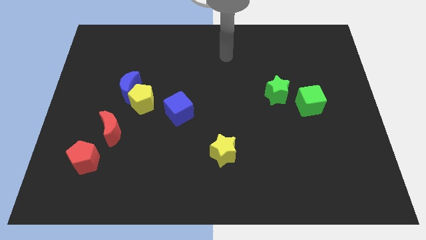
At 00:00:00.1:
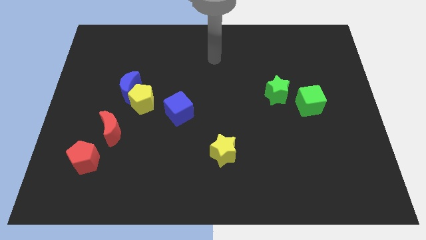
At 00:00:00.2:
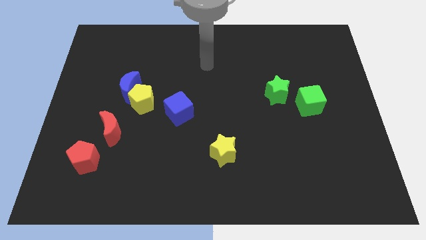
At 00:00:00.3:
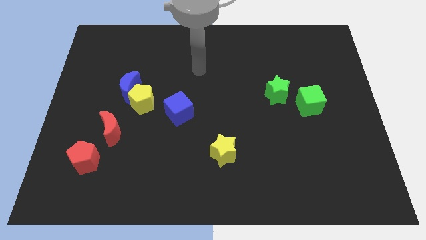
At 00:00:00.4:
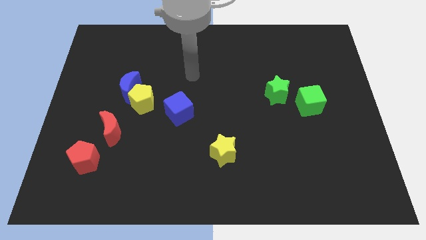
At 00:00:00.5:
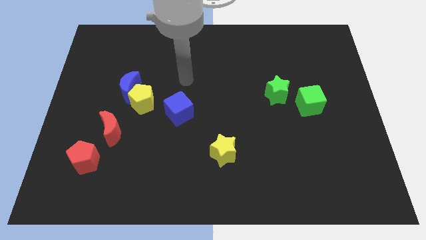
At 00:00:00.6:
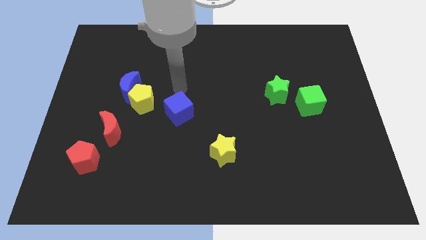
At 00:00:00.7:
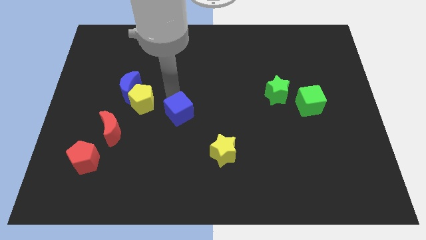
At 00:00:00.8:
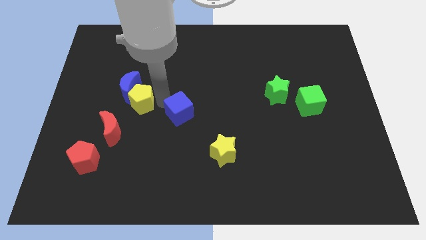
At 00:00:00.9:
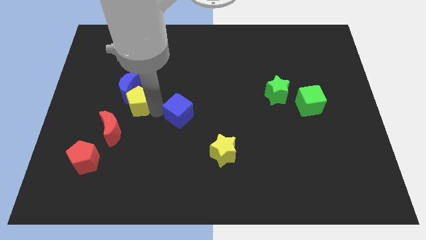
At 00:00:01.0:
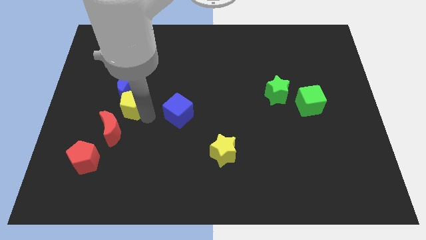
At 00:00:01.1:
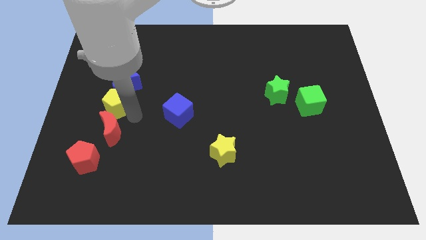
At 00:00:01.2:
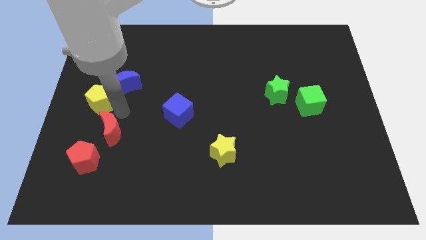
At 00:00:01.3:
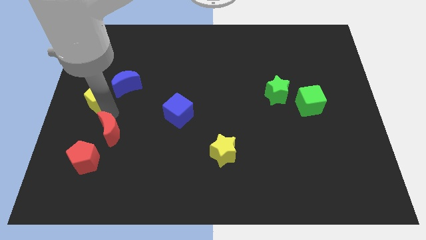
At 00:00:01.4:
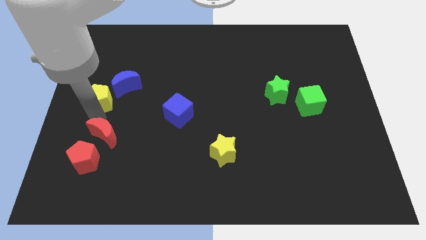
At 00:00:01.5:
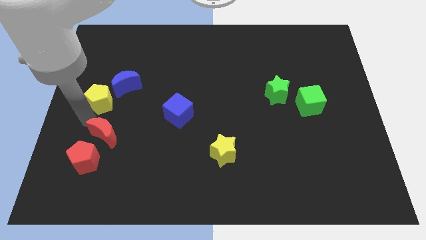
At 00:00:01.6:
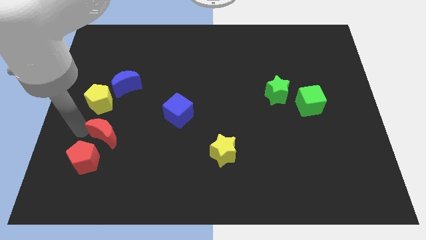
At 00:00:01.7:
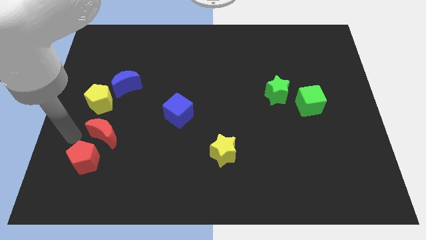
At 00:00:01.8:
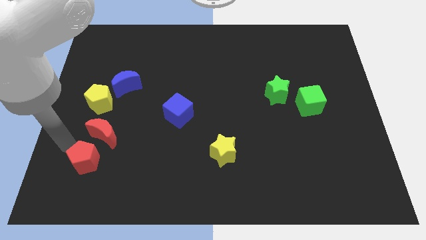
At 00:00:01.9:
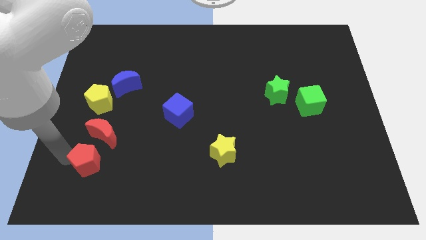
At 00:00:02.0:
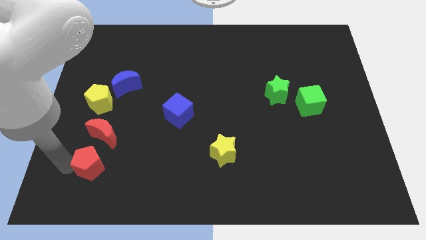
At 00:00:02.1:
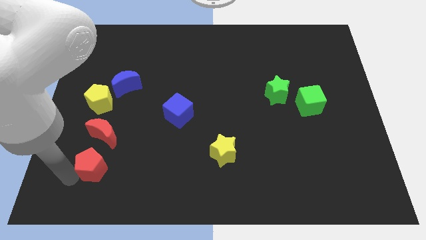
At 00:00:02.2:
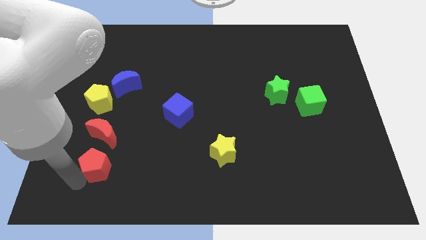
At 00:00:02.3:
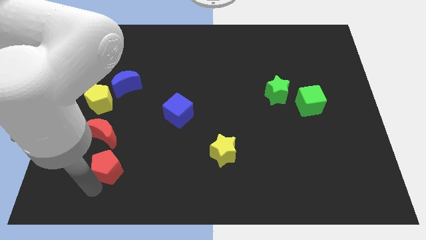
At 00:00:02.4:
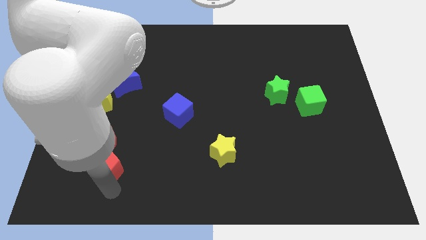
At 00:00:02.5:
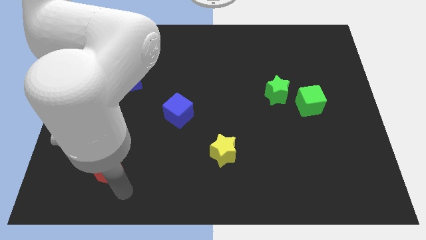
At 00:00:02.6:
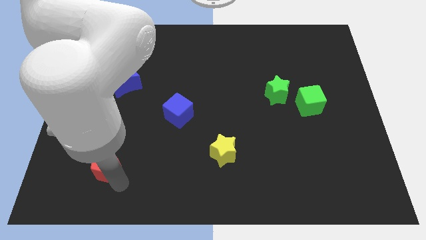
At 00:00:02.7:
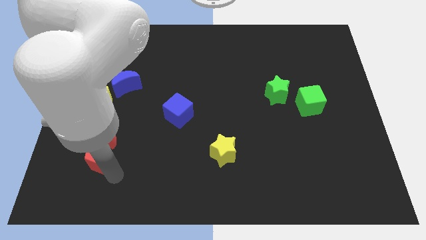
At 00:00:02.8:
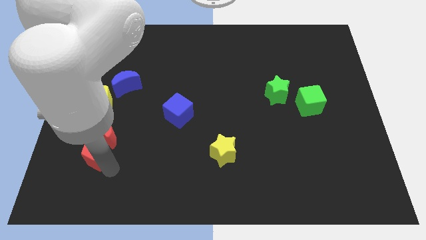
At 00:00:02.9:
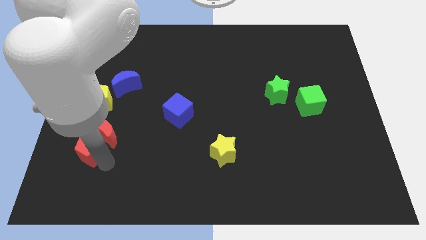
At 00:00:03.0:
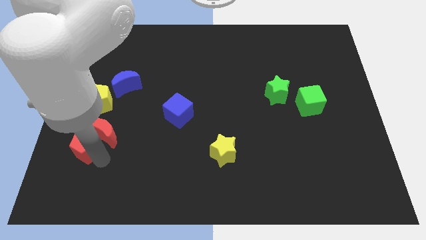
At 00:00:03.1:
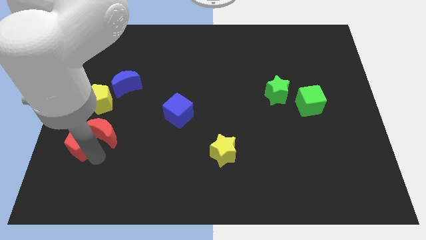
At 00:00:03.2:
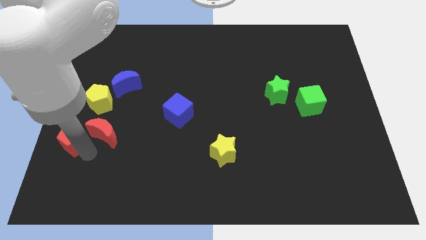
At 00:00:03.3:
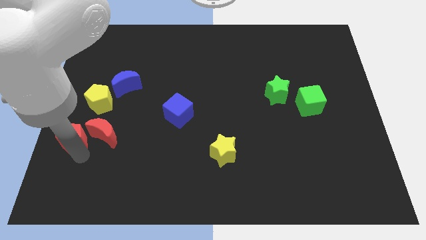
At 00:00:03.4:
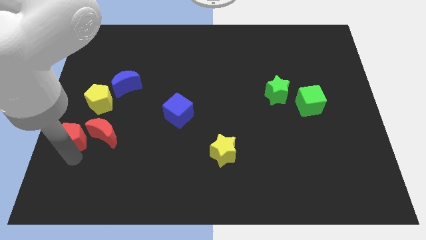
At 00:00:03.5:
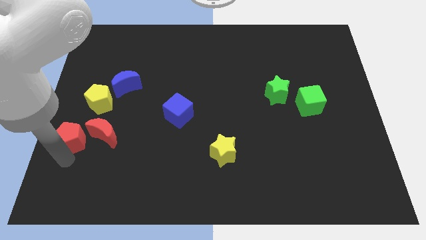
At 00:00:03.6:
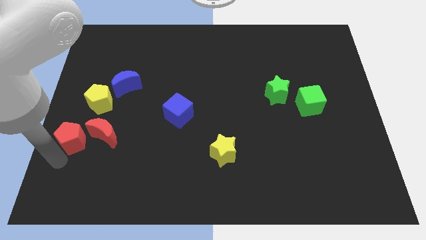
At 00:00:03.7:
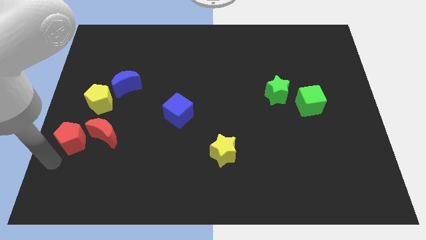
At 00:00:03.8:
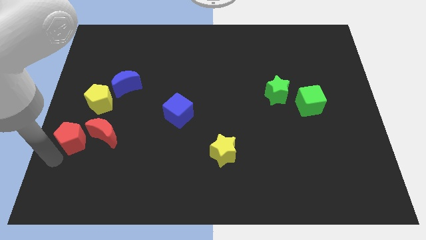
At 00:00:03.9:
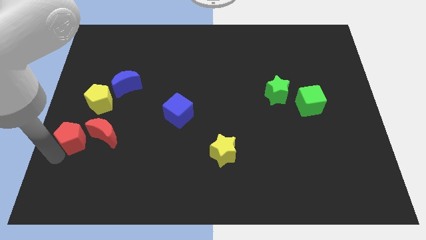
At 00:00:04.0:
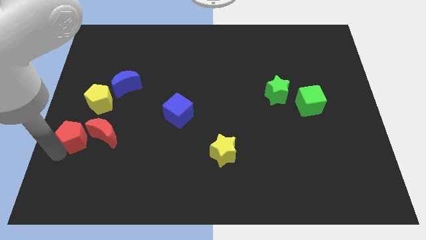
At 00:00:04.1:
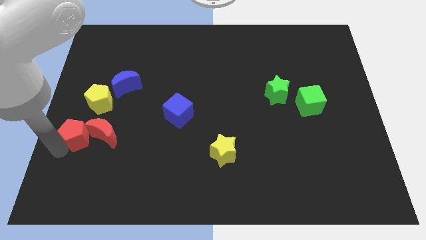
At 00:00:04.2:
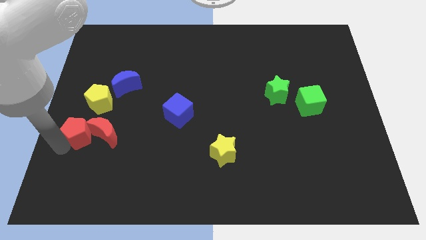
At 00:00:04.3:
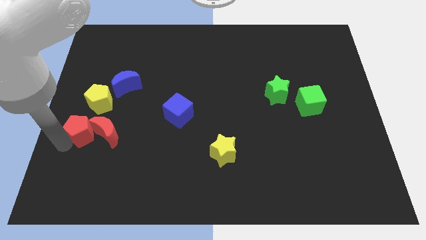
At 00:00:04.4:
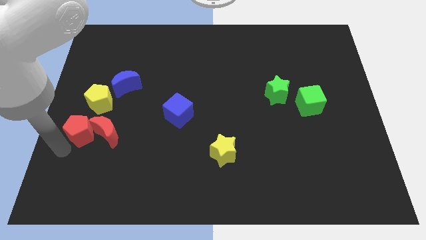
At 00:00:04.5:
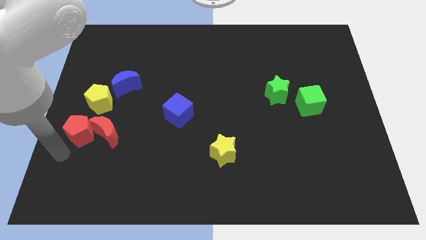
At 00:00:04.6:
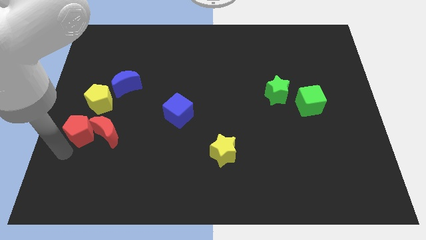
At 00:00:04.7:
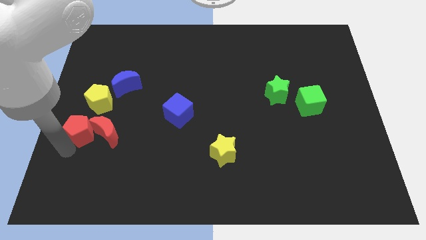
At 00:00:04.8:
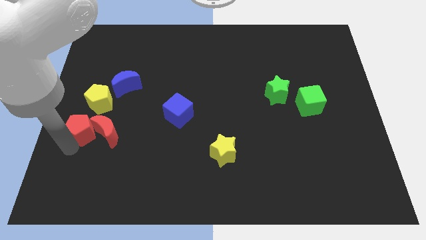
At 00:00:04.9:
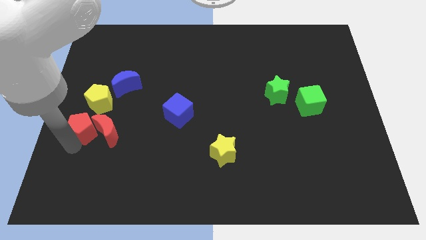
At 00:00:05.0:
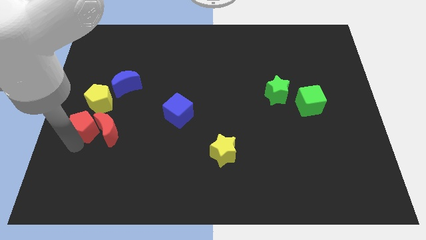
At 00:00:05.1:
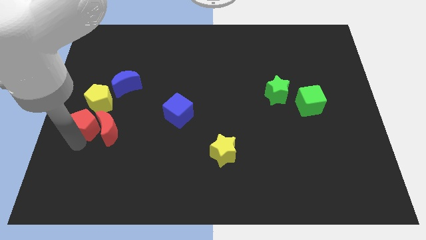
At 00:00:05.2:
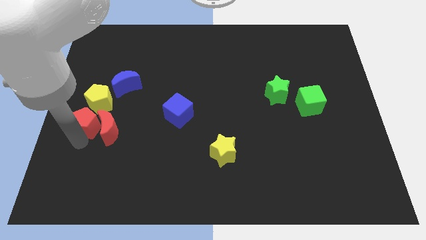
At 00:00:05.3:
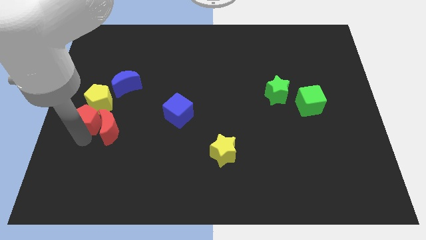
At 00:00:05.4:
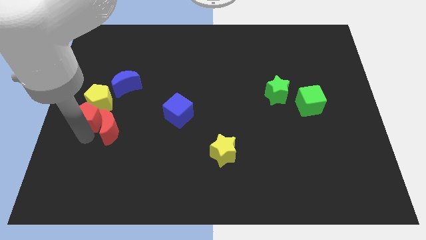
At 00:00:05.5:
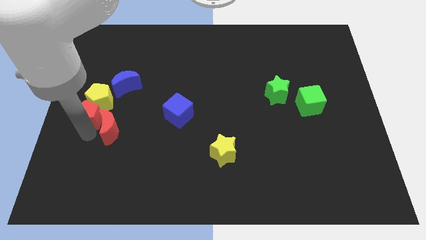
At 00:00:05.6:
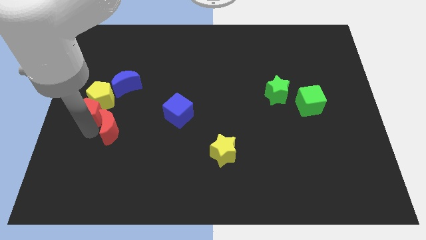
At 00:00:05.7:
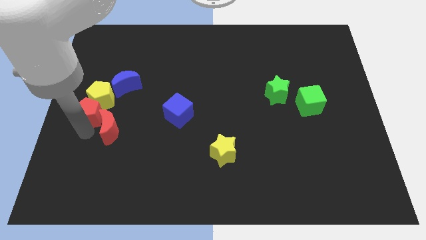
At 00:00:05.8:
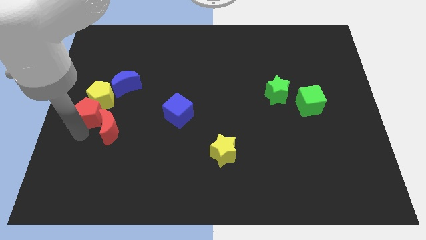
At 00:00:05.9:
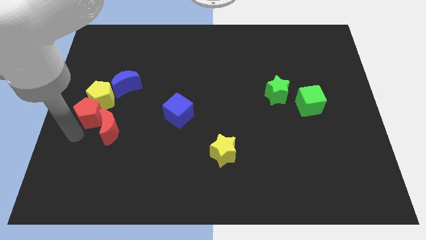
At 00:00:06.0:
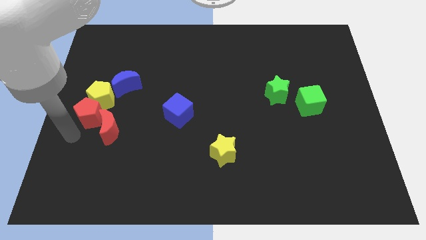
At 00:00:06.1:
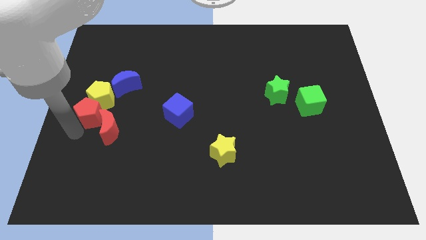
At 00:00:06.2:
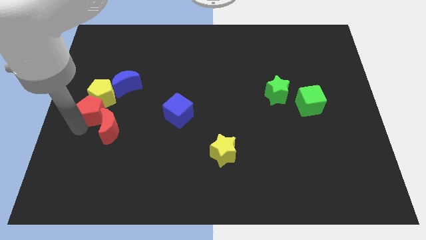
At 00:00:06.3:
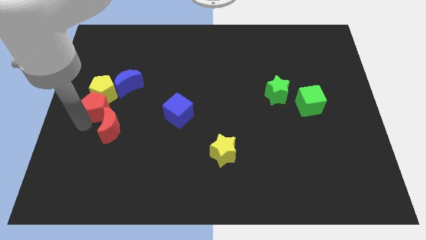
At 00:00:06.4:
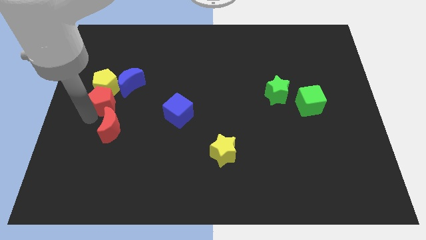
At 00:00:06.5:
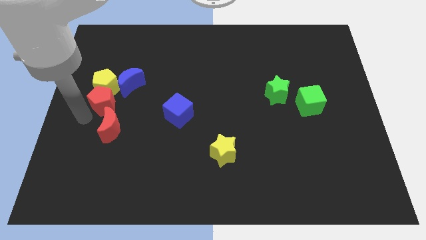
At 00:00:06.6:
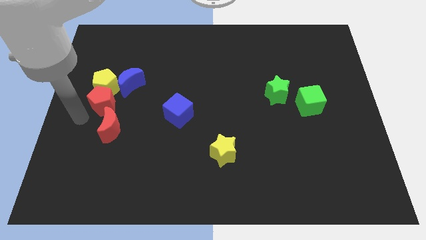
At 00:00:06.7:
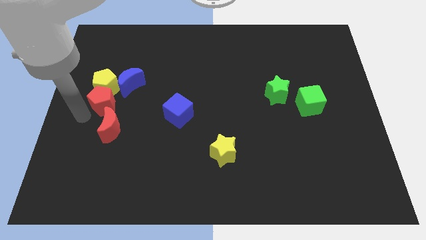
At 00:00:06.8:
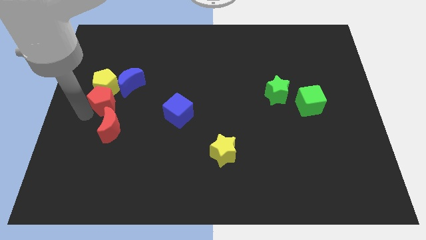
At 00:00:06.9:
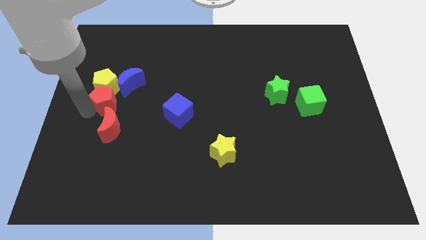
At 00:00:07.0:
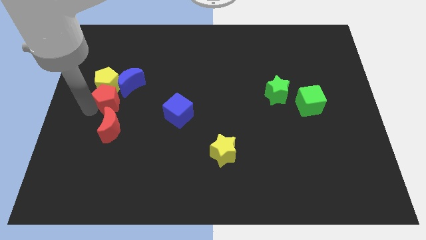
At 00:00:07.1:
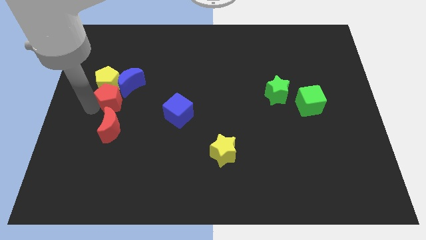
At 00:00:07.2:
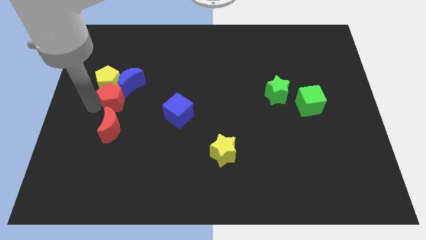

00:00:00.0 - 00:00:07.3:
push the red pentagon next to the blue moon
